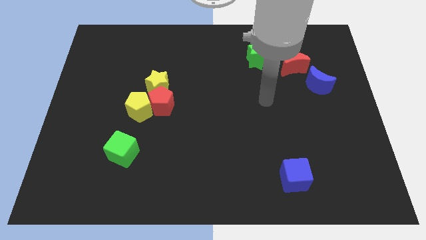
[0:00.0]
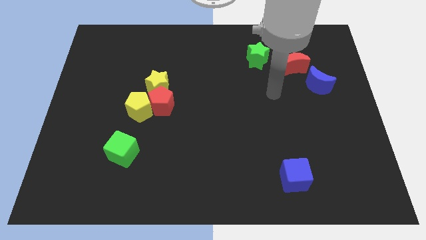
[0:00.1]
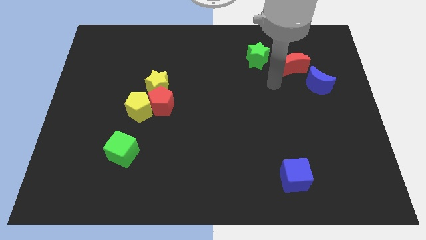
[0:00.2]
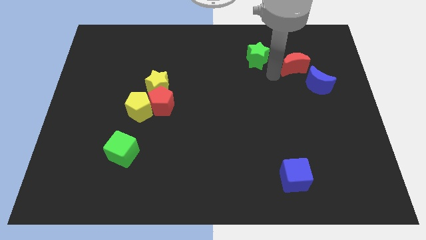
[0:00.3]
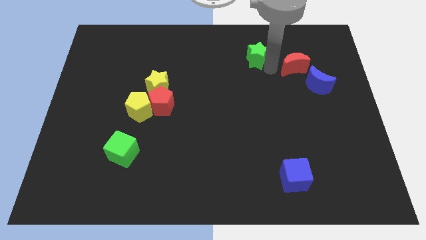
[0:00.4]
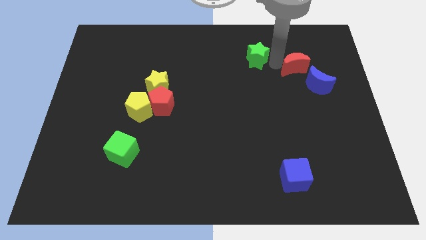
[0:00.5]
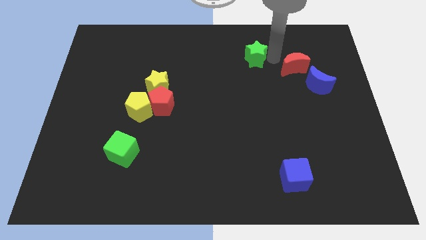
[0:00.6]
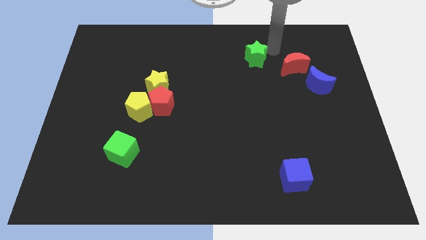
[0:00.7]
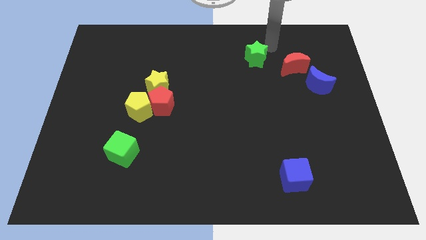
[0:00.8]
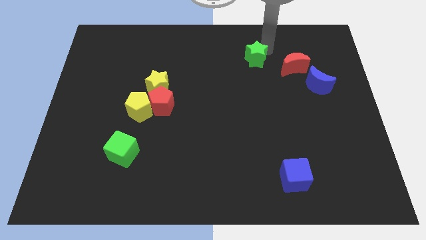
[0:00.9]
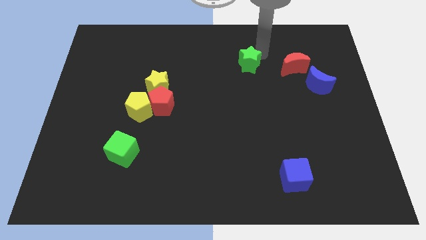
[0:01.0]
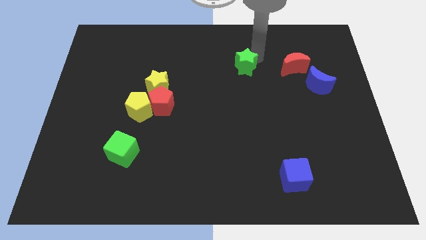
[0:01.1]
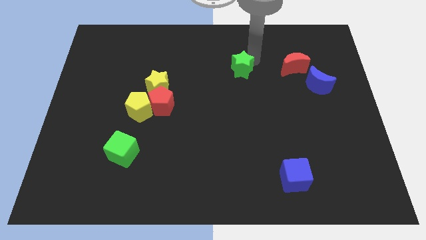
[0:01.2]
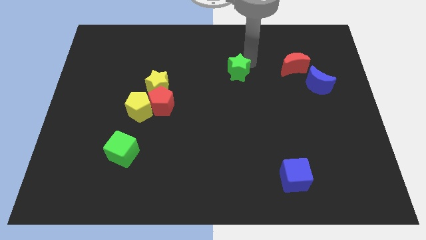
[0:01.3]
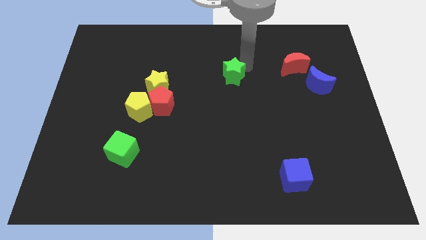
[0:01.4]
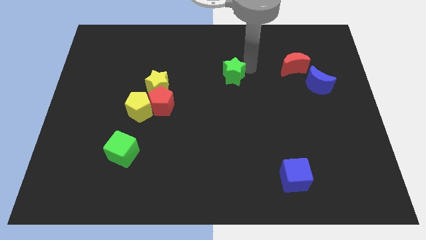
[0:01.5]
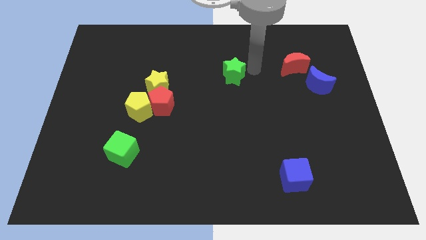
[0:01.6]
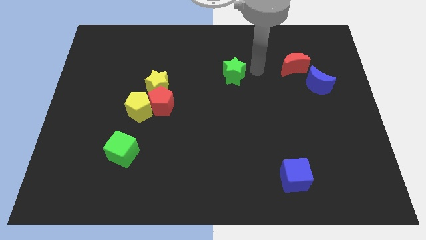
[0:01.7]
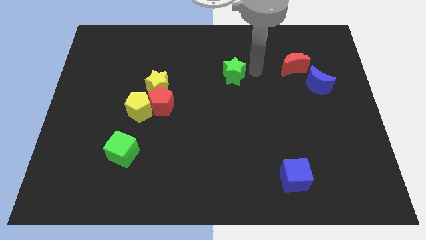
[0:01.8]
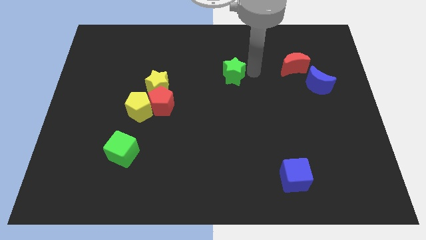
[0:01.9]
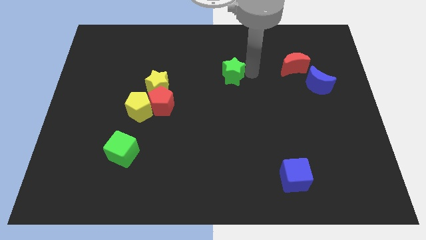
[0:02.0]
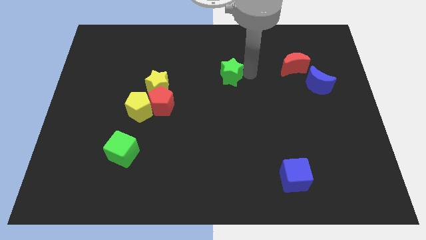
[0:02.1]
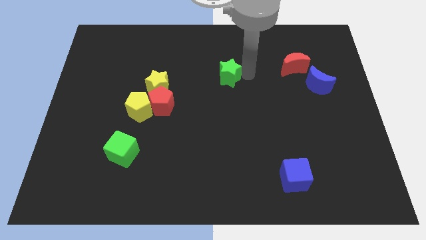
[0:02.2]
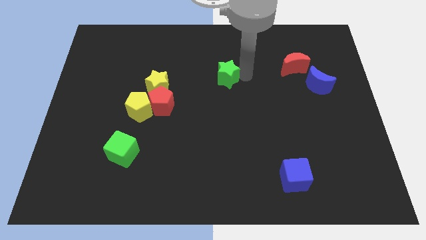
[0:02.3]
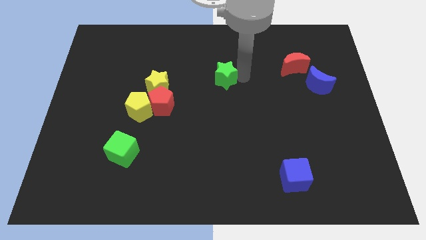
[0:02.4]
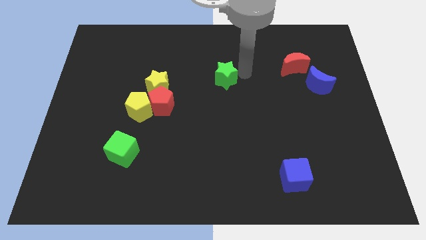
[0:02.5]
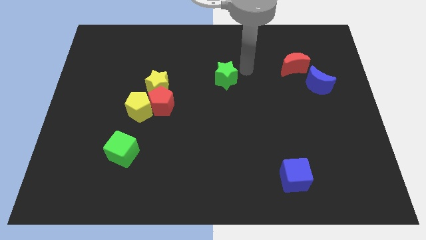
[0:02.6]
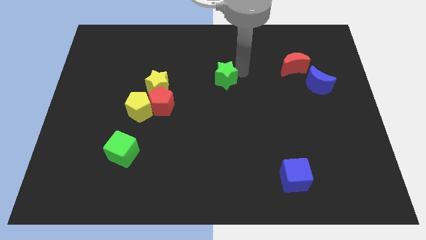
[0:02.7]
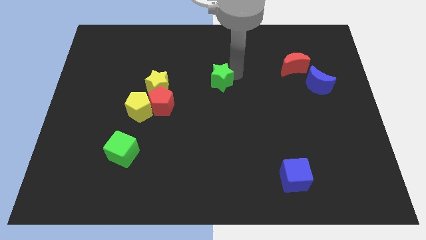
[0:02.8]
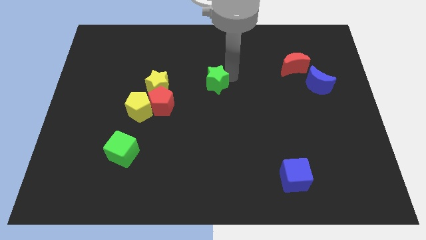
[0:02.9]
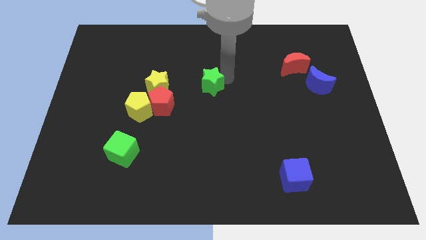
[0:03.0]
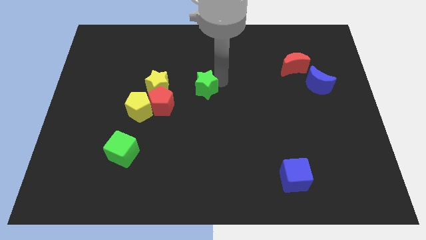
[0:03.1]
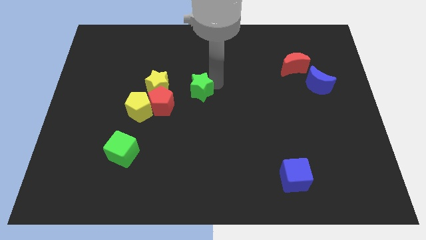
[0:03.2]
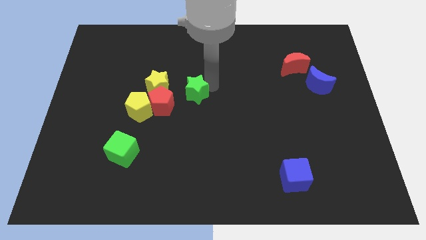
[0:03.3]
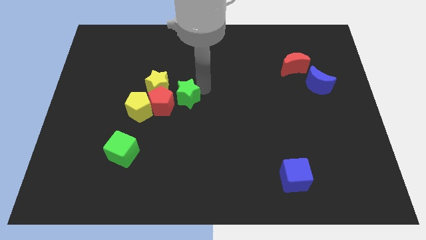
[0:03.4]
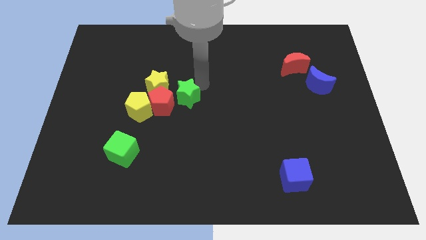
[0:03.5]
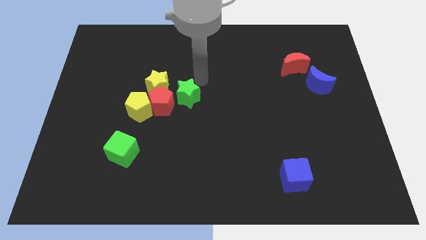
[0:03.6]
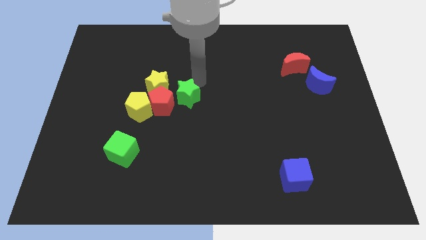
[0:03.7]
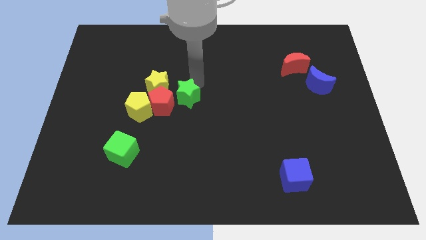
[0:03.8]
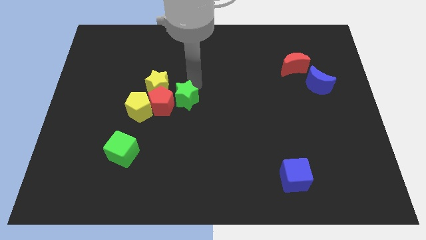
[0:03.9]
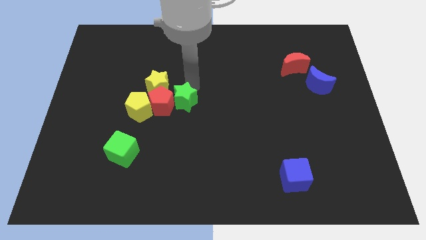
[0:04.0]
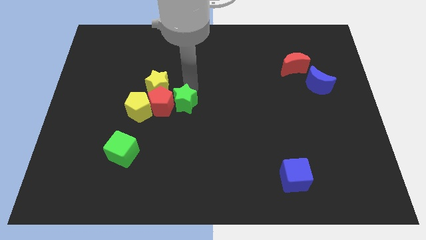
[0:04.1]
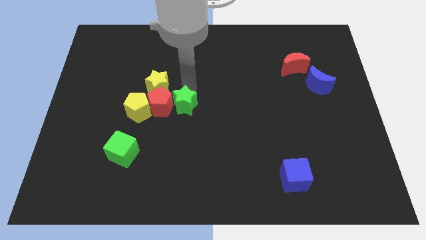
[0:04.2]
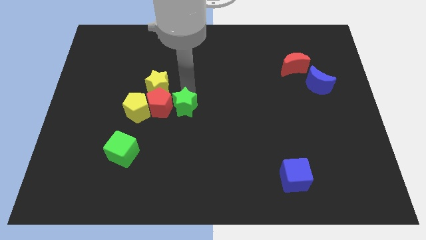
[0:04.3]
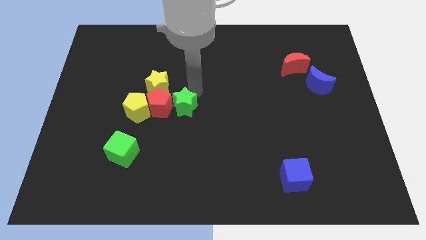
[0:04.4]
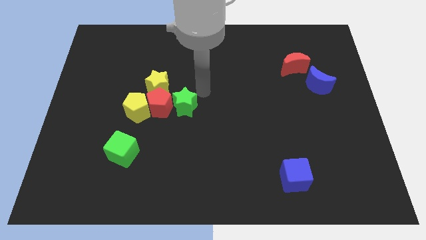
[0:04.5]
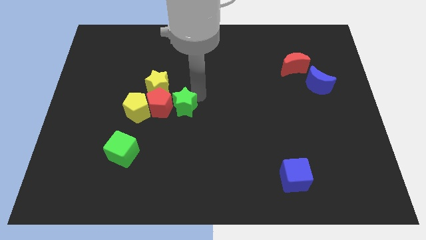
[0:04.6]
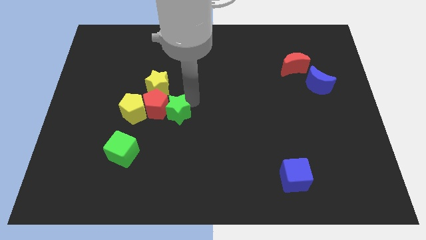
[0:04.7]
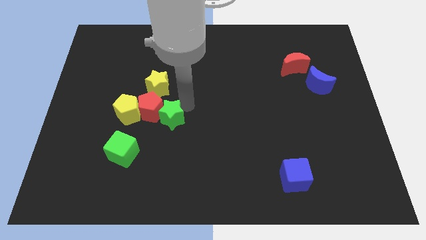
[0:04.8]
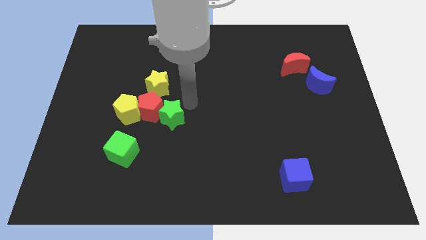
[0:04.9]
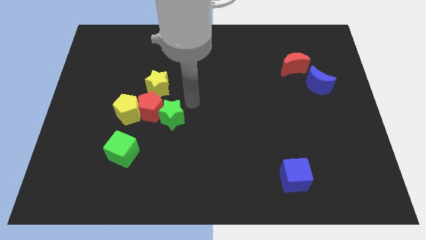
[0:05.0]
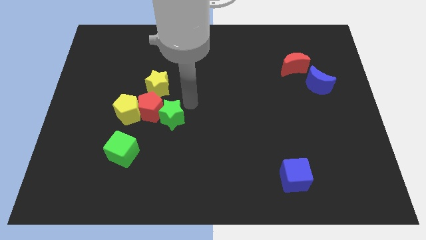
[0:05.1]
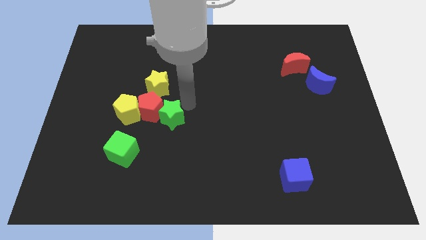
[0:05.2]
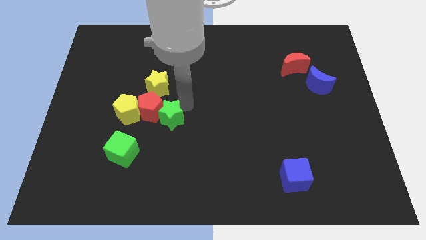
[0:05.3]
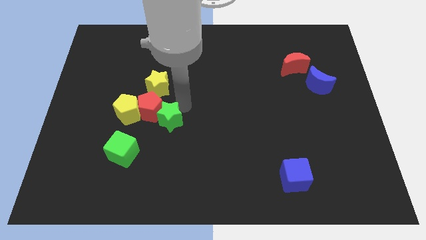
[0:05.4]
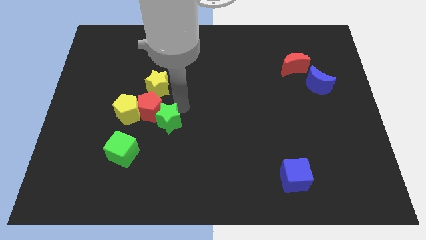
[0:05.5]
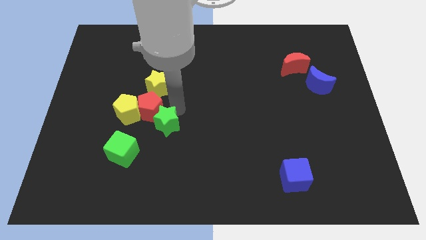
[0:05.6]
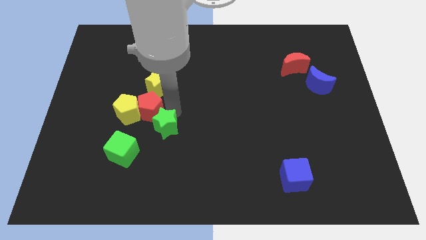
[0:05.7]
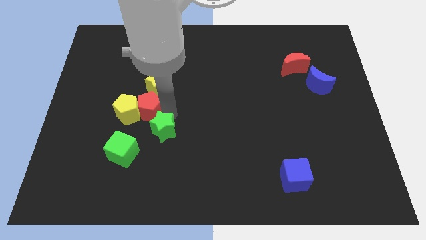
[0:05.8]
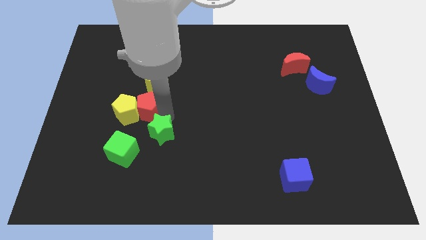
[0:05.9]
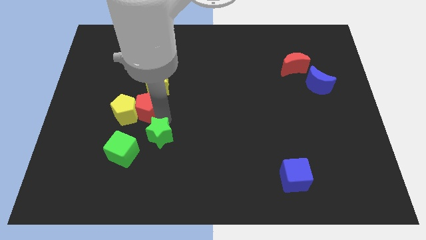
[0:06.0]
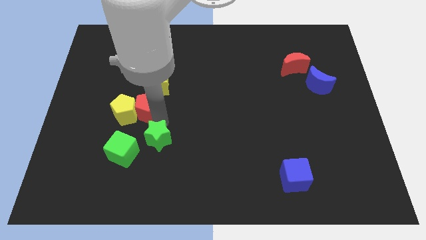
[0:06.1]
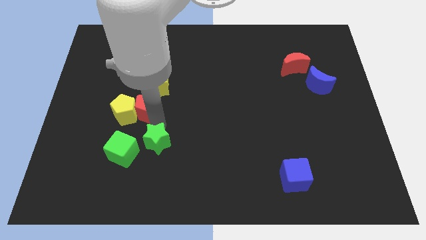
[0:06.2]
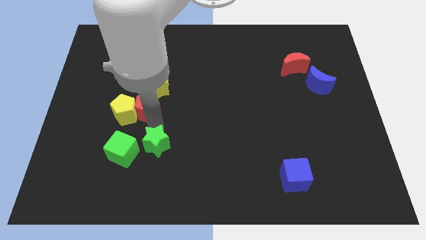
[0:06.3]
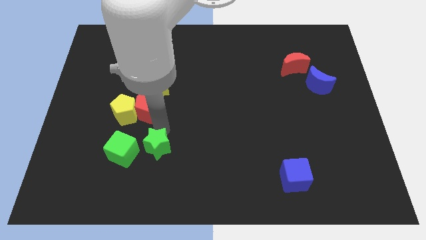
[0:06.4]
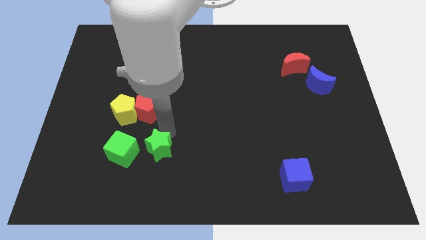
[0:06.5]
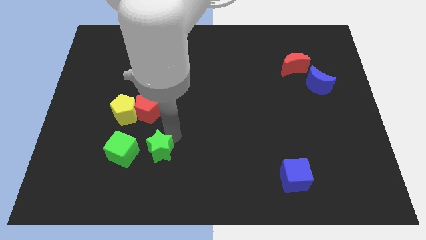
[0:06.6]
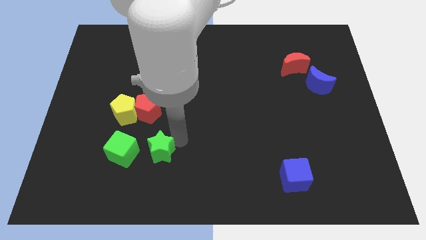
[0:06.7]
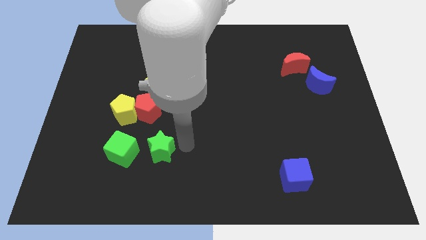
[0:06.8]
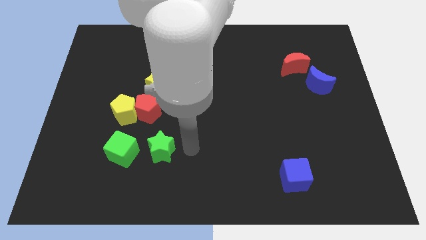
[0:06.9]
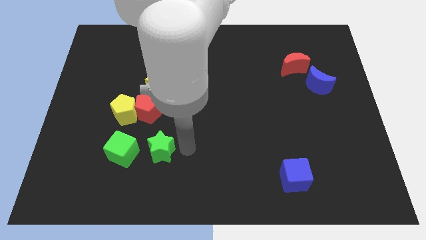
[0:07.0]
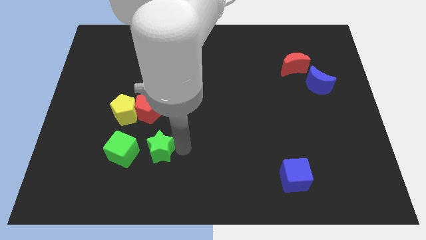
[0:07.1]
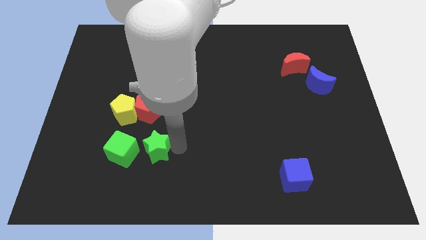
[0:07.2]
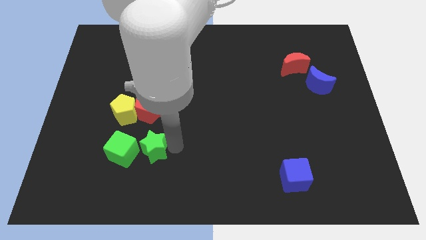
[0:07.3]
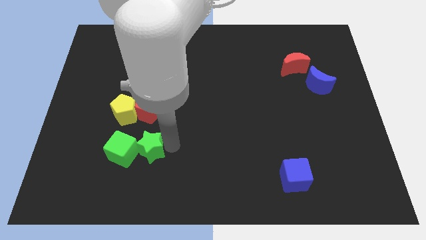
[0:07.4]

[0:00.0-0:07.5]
move the green star close to the green cube

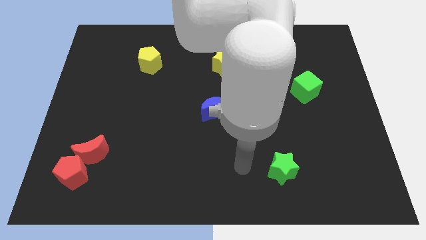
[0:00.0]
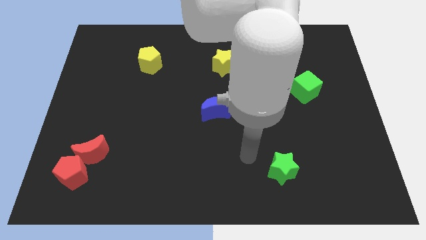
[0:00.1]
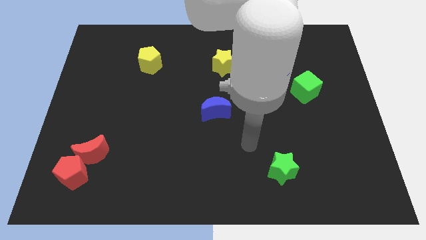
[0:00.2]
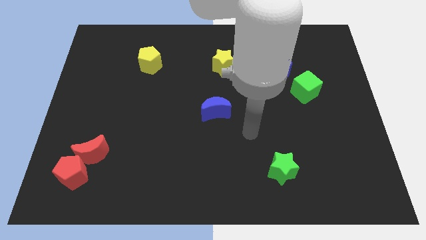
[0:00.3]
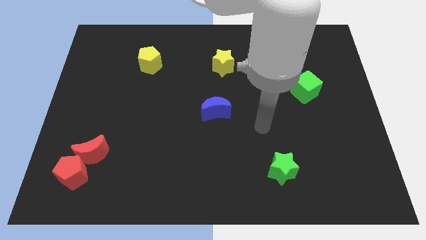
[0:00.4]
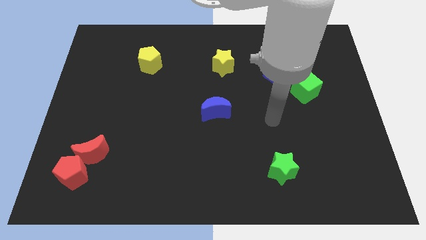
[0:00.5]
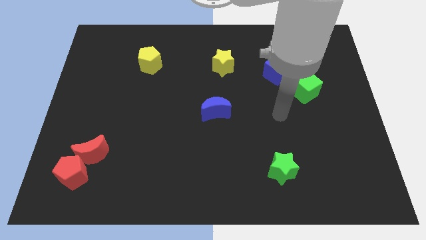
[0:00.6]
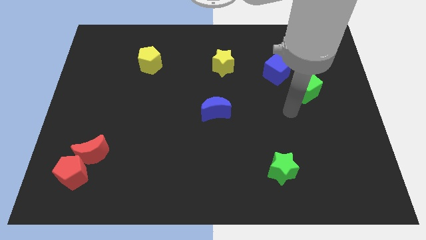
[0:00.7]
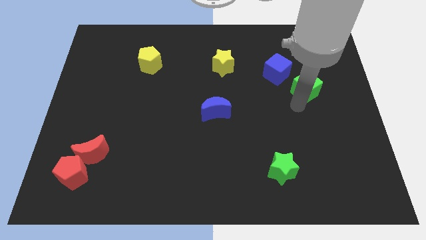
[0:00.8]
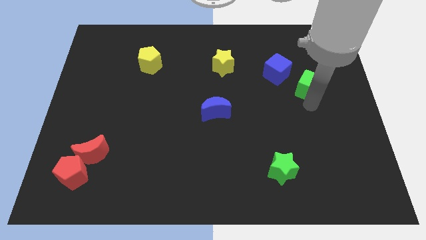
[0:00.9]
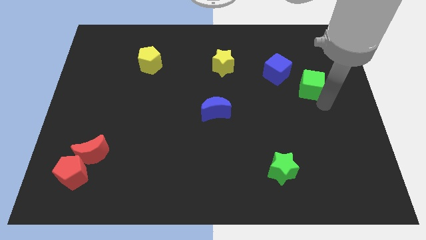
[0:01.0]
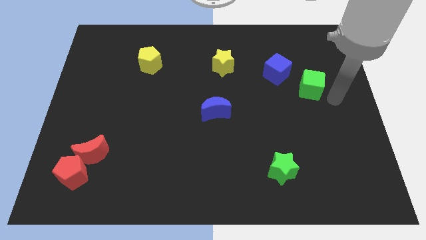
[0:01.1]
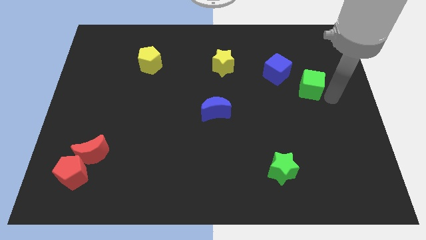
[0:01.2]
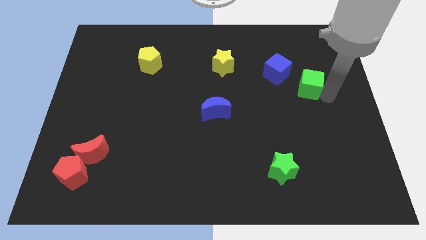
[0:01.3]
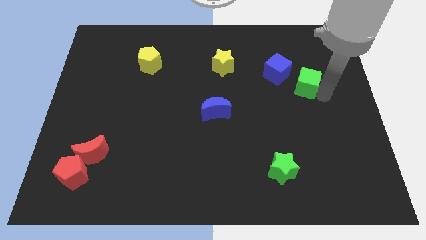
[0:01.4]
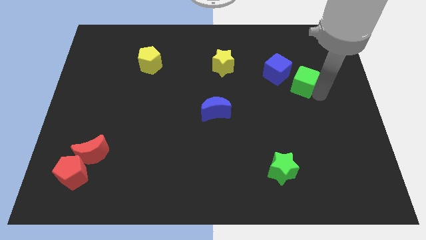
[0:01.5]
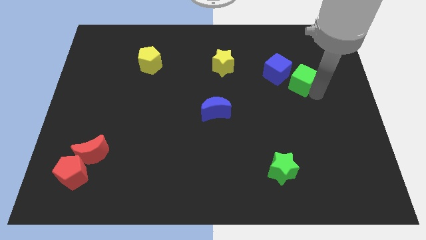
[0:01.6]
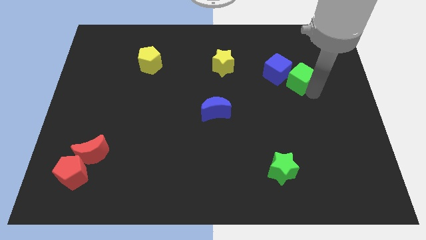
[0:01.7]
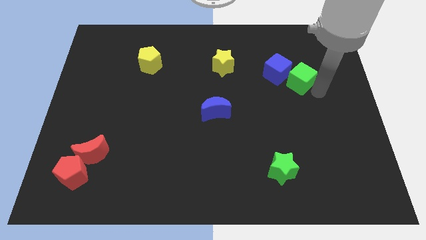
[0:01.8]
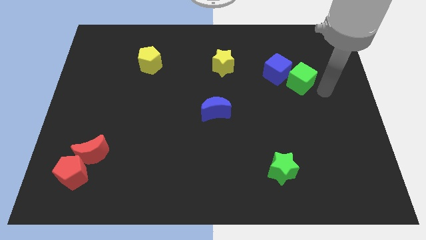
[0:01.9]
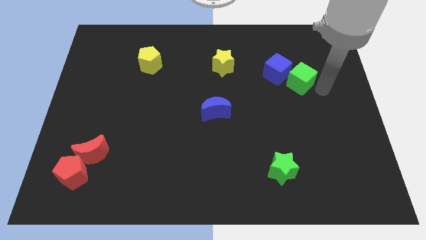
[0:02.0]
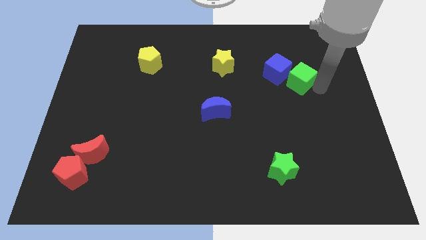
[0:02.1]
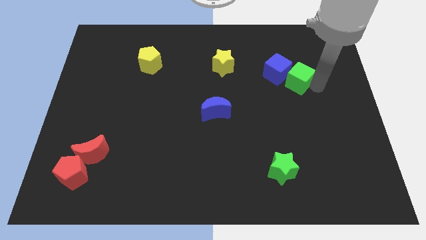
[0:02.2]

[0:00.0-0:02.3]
push the green cube towards the blue cube
